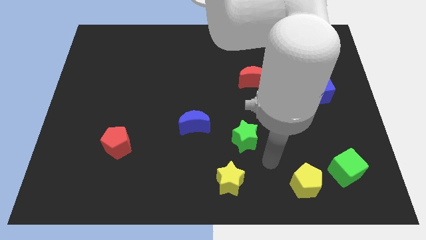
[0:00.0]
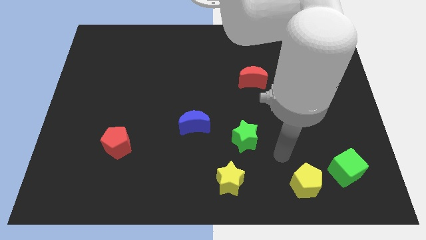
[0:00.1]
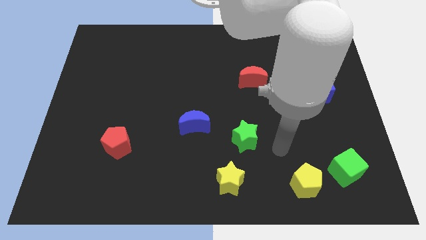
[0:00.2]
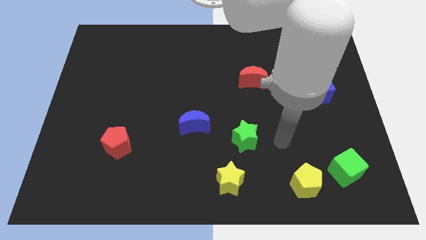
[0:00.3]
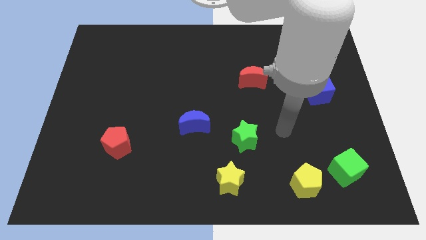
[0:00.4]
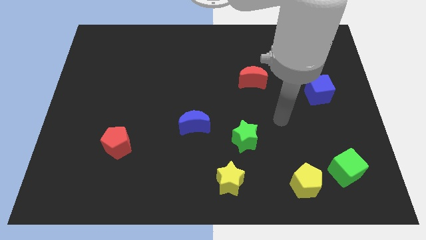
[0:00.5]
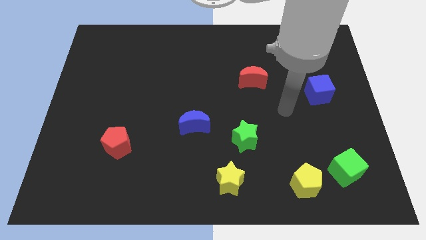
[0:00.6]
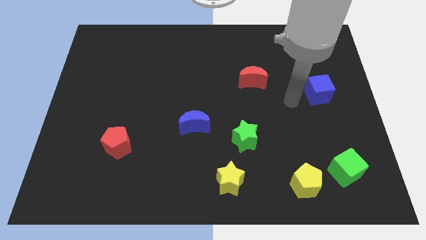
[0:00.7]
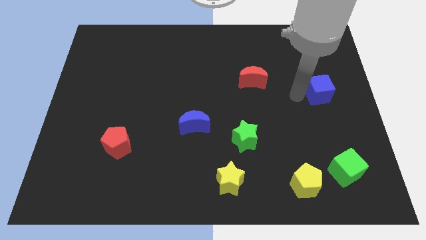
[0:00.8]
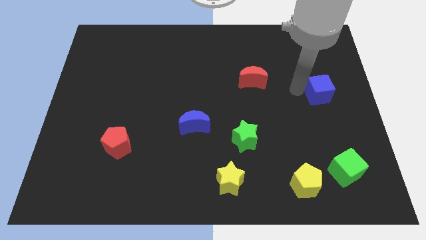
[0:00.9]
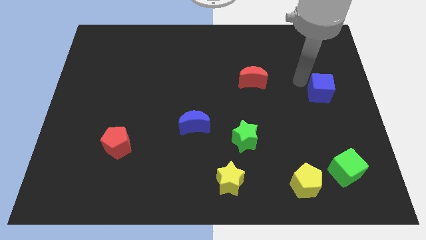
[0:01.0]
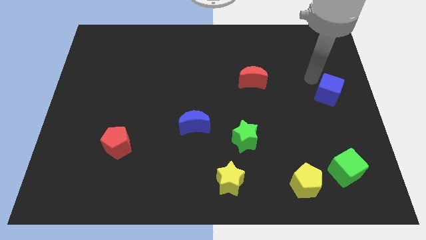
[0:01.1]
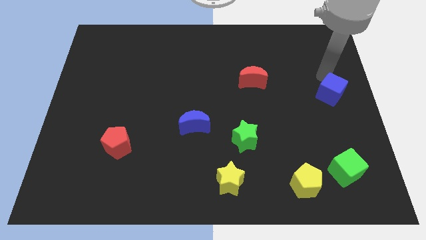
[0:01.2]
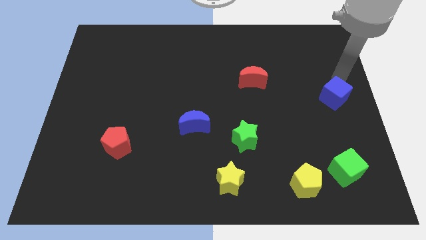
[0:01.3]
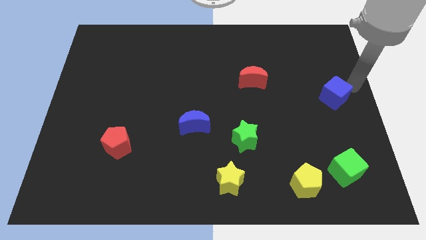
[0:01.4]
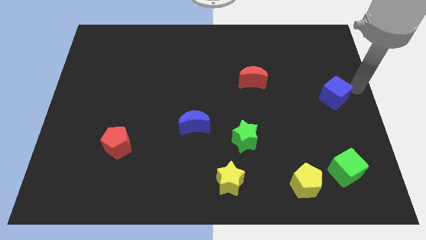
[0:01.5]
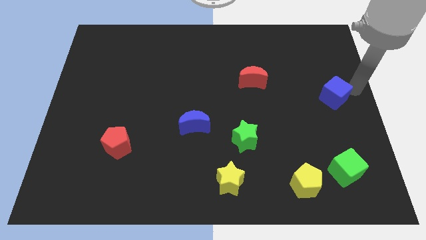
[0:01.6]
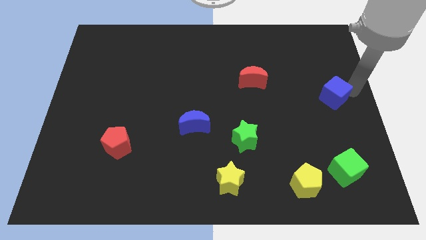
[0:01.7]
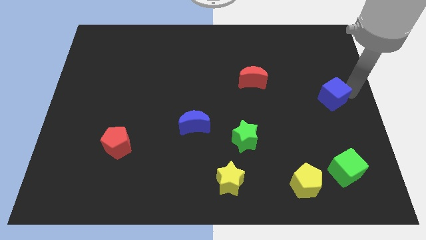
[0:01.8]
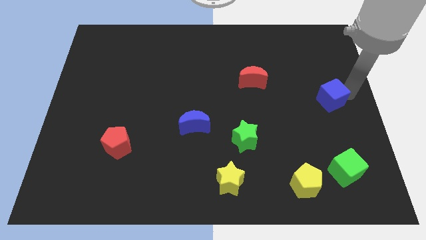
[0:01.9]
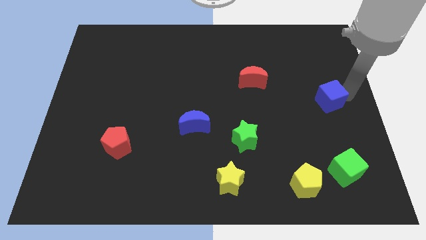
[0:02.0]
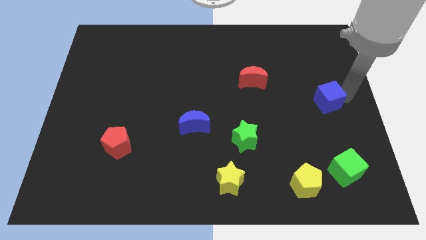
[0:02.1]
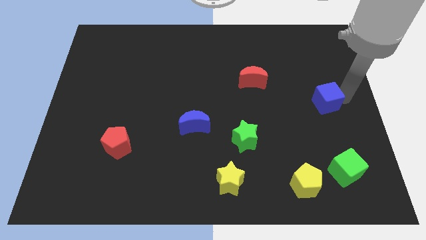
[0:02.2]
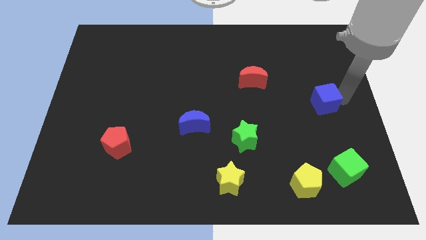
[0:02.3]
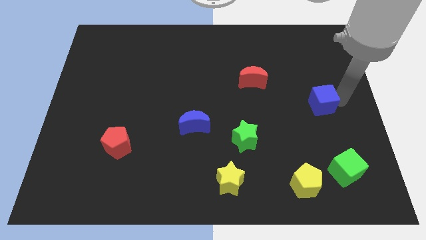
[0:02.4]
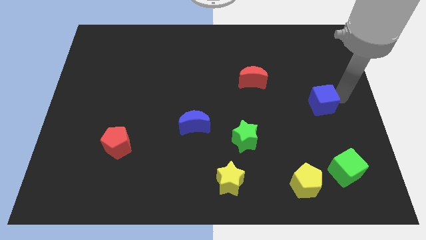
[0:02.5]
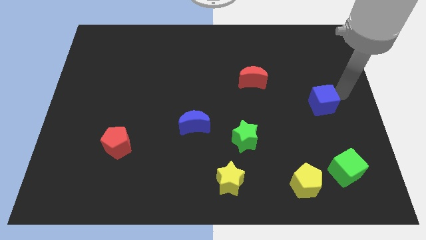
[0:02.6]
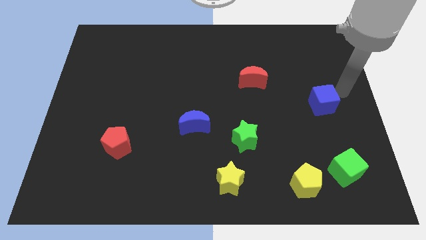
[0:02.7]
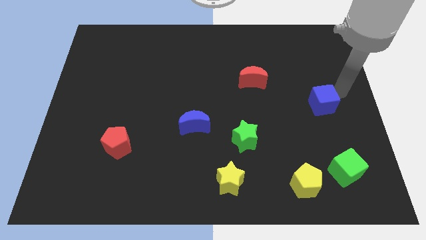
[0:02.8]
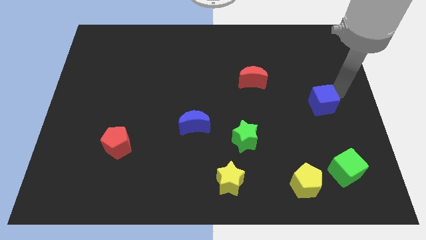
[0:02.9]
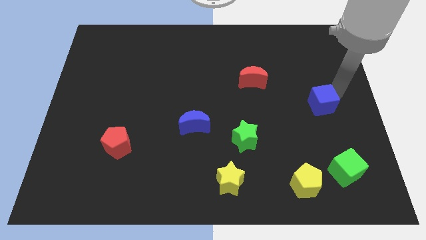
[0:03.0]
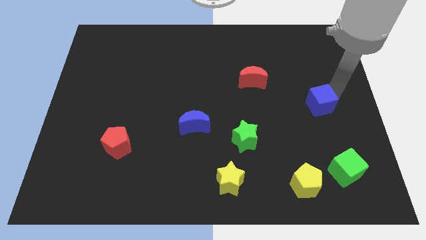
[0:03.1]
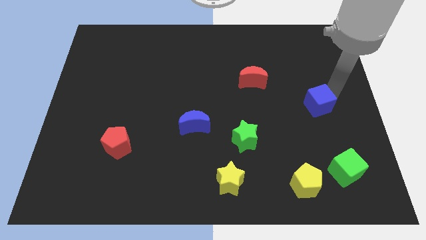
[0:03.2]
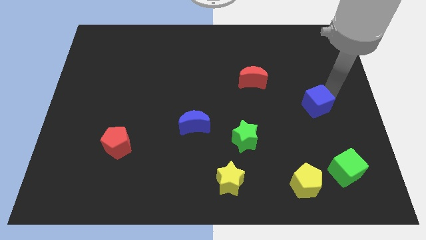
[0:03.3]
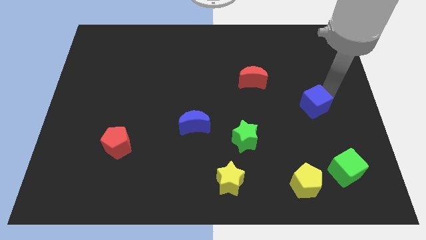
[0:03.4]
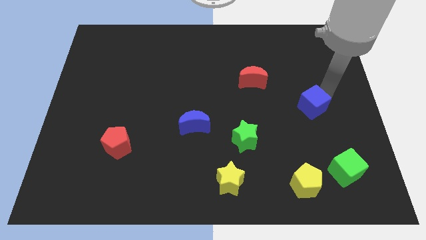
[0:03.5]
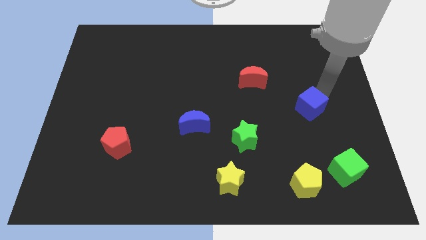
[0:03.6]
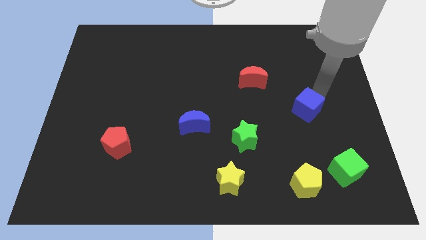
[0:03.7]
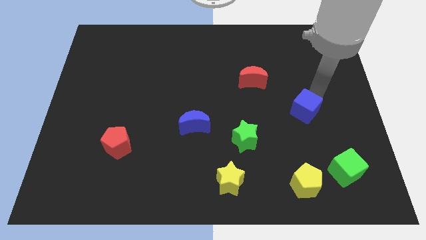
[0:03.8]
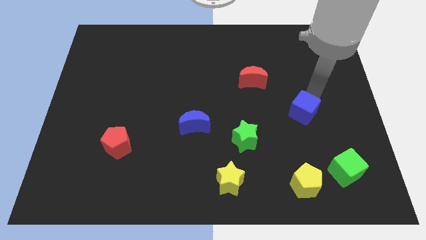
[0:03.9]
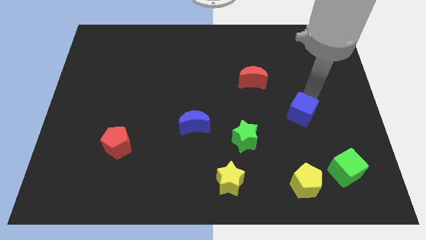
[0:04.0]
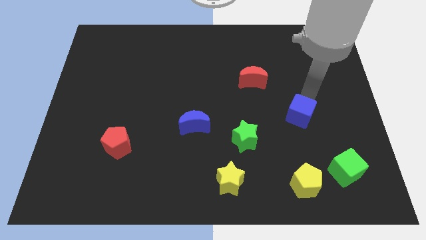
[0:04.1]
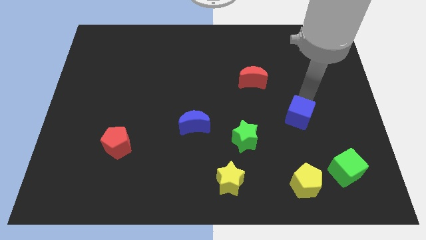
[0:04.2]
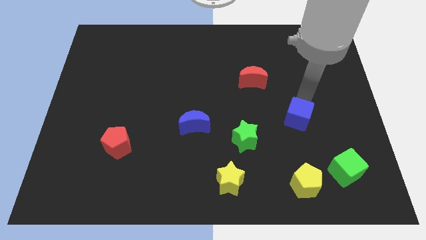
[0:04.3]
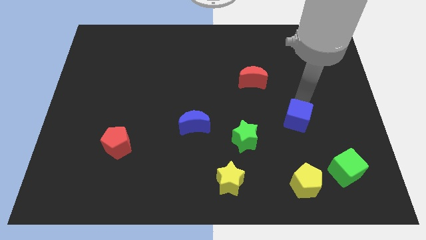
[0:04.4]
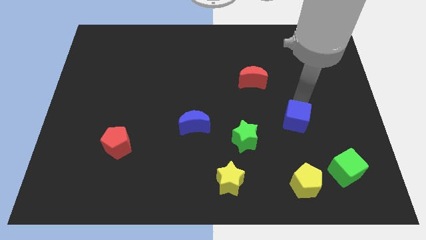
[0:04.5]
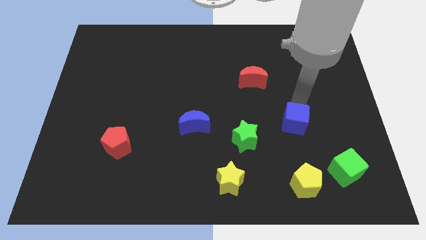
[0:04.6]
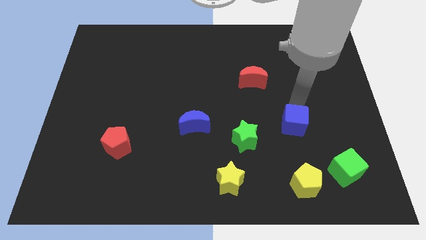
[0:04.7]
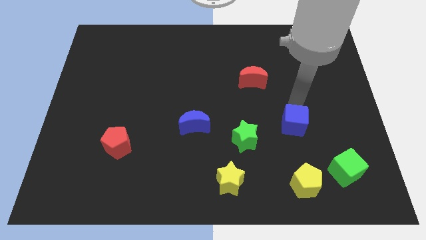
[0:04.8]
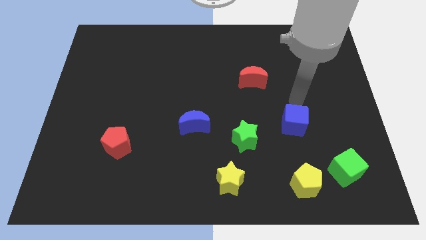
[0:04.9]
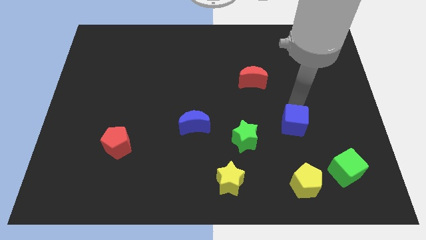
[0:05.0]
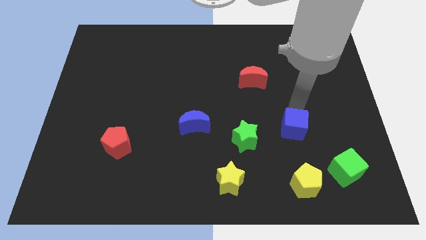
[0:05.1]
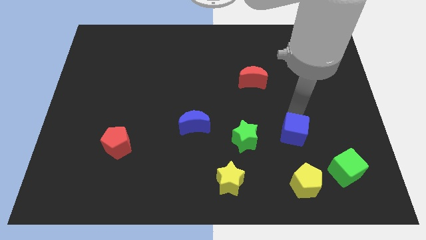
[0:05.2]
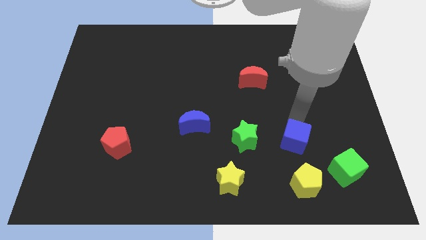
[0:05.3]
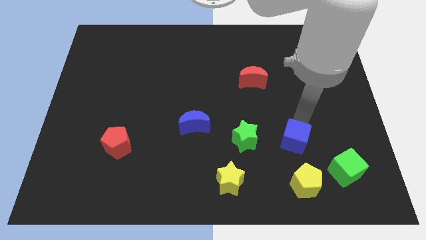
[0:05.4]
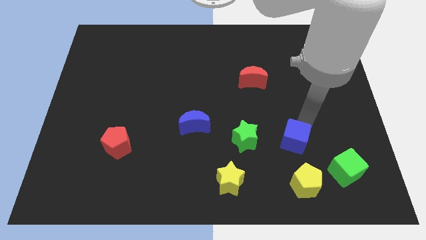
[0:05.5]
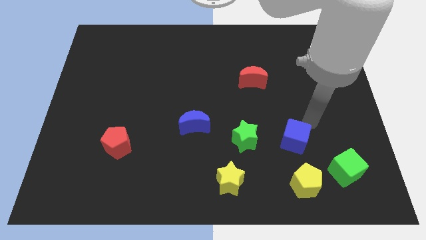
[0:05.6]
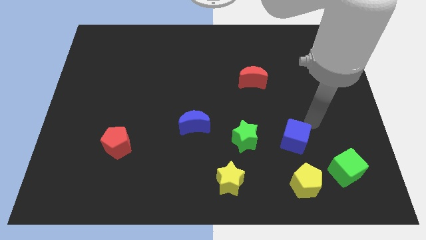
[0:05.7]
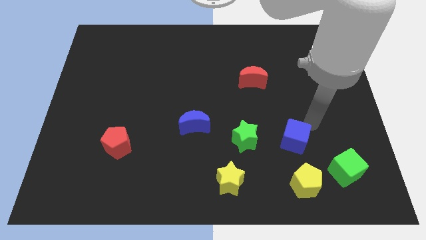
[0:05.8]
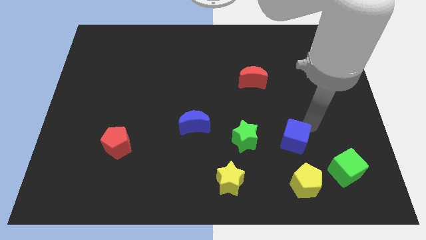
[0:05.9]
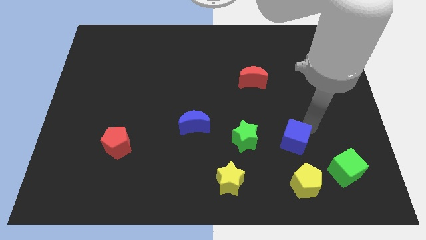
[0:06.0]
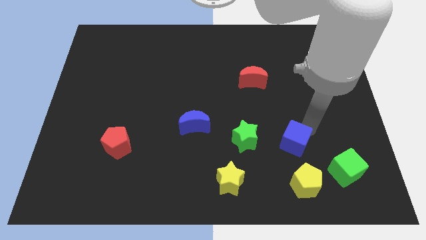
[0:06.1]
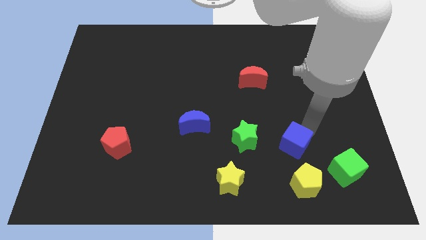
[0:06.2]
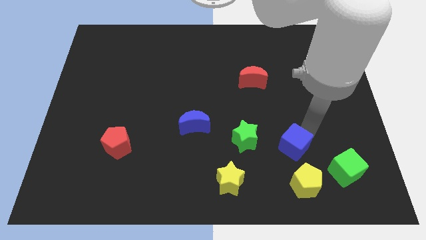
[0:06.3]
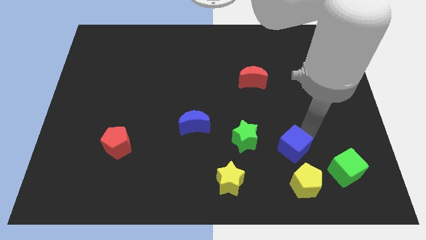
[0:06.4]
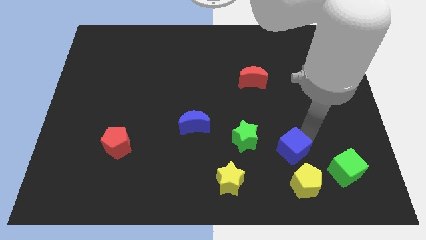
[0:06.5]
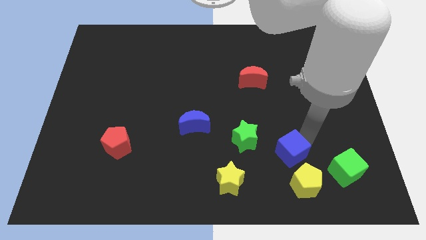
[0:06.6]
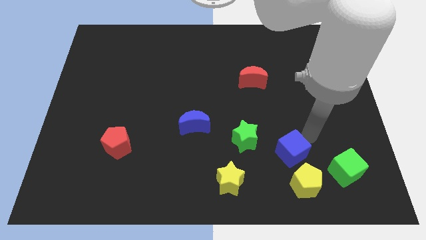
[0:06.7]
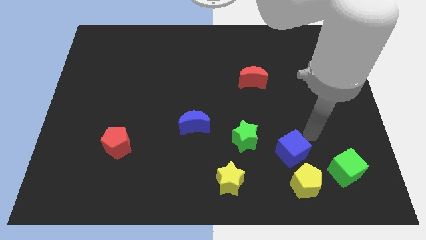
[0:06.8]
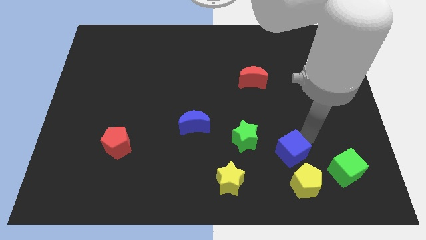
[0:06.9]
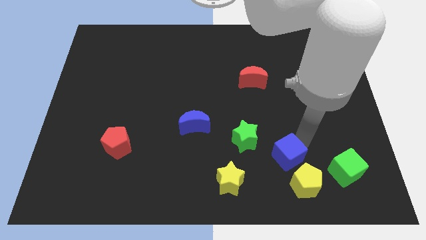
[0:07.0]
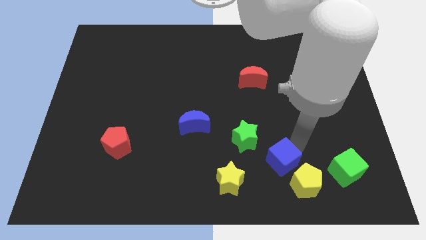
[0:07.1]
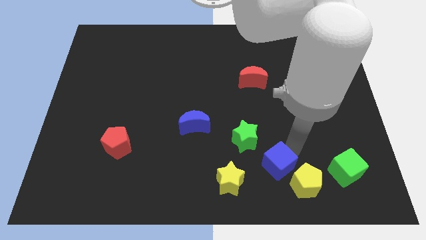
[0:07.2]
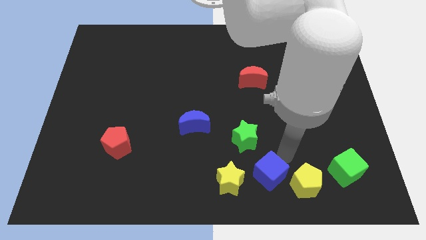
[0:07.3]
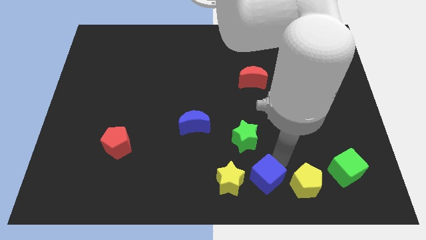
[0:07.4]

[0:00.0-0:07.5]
push the blue cube to the bottom side
